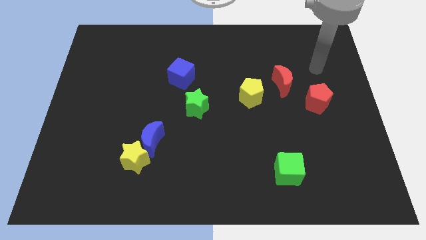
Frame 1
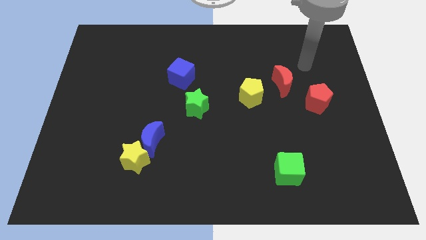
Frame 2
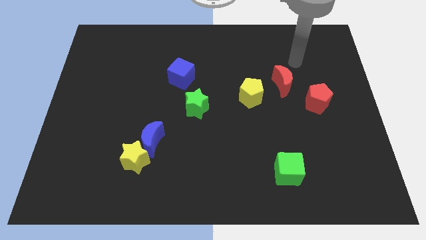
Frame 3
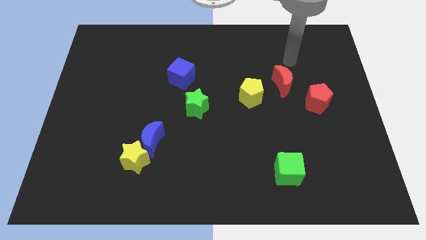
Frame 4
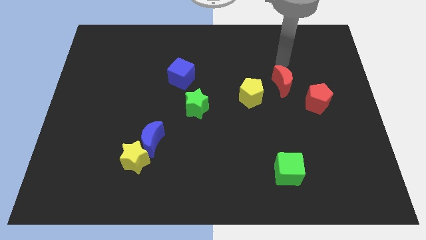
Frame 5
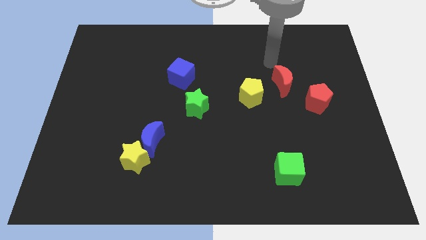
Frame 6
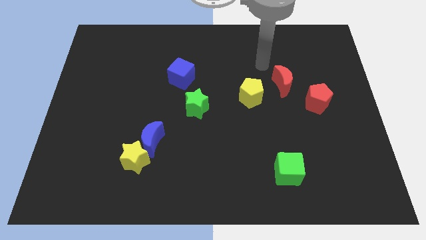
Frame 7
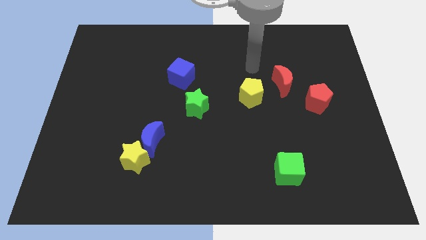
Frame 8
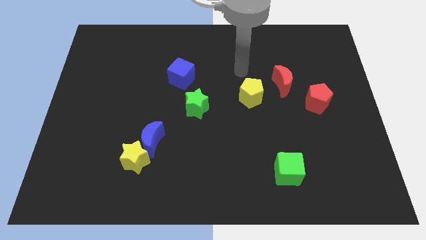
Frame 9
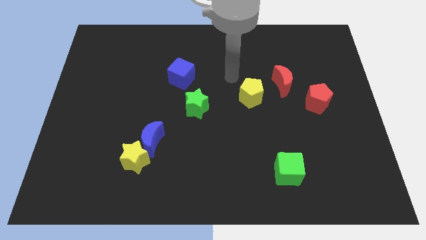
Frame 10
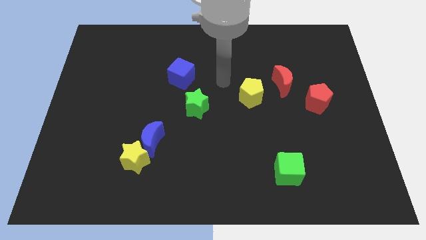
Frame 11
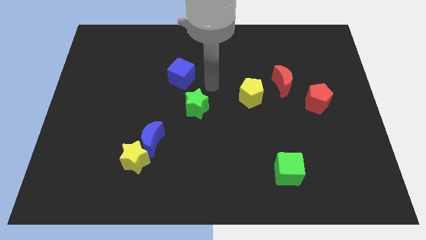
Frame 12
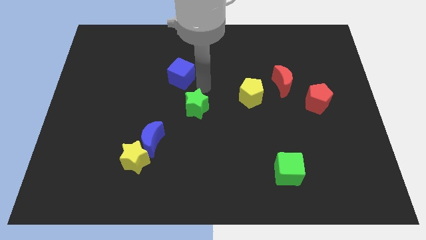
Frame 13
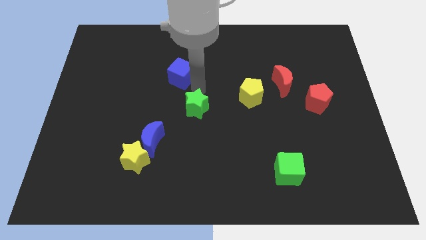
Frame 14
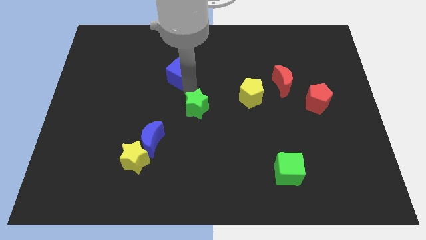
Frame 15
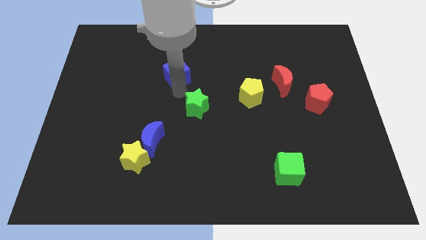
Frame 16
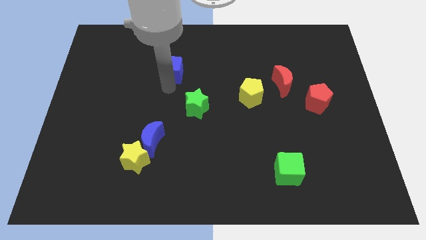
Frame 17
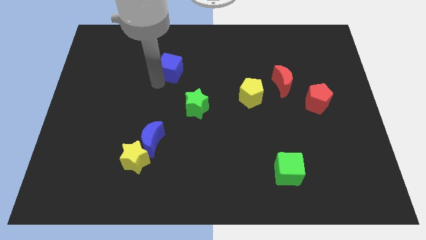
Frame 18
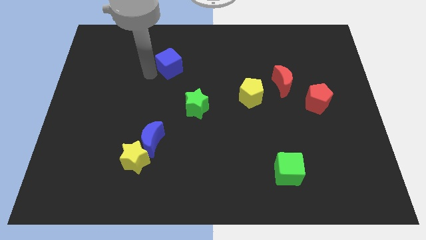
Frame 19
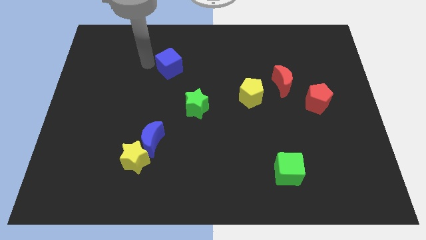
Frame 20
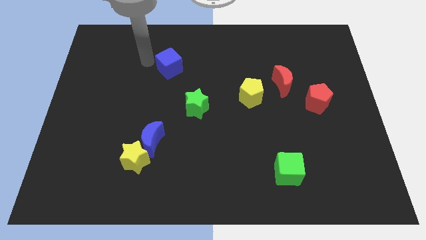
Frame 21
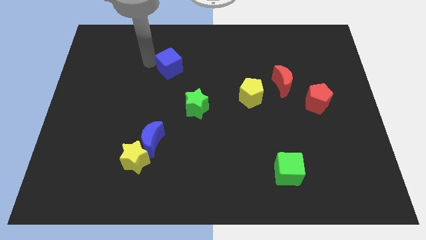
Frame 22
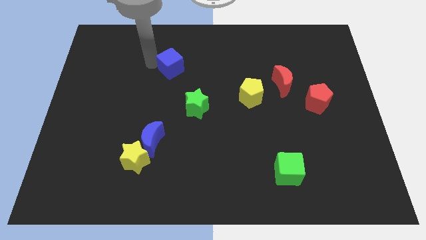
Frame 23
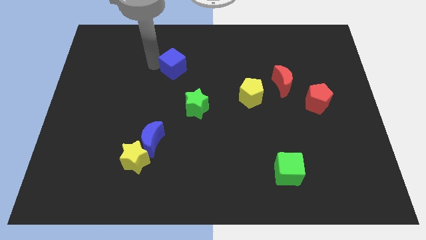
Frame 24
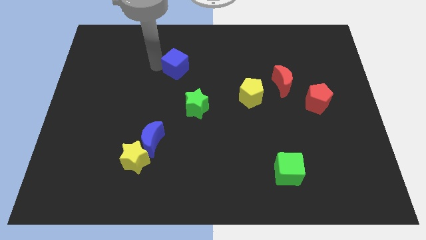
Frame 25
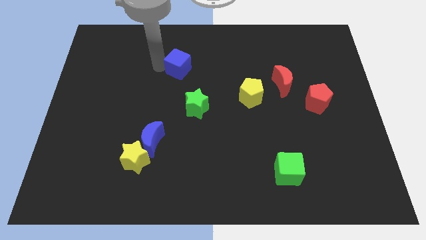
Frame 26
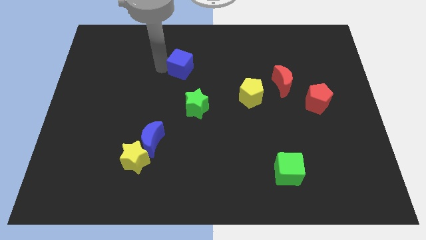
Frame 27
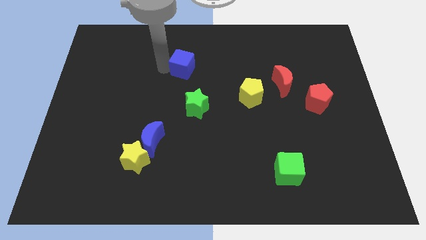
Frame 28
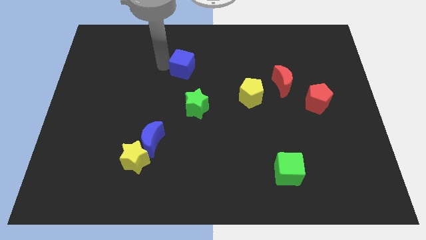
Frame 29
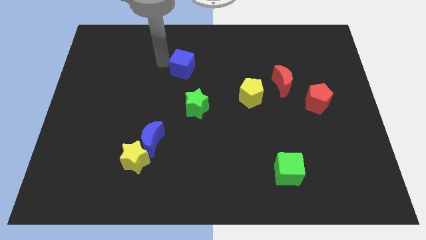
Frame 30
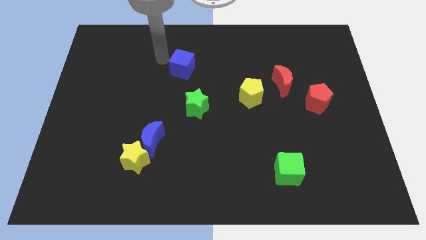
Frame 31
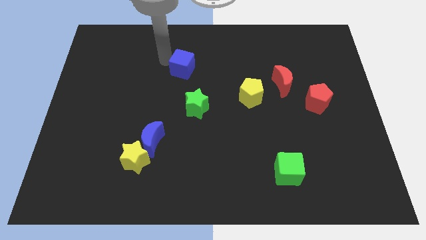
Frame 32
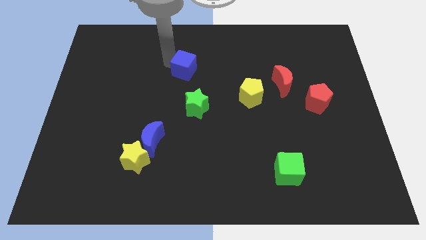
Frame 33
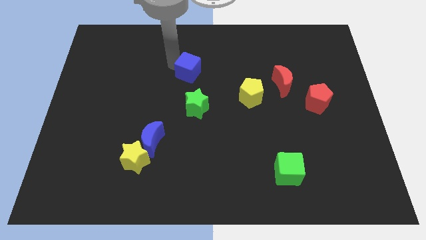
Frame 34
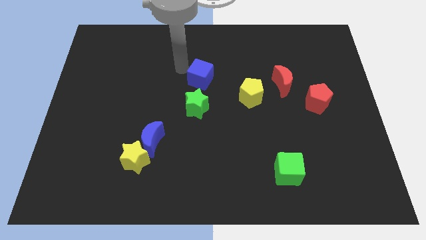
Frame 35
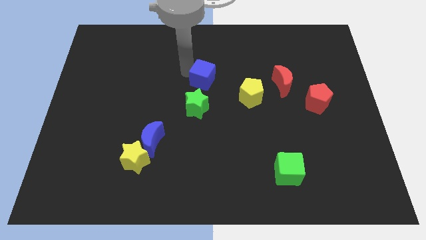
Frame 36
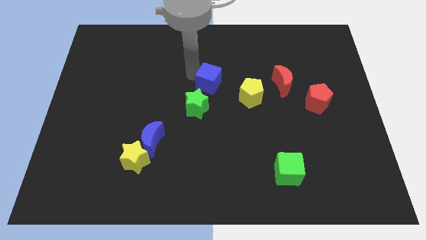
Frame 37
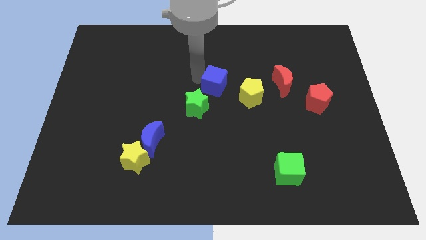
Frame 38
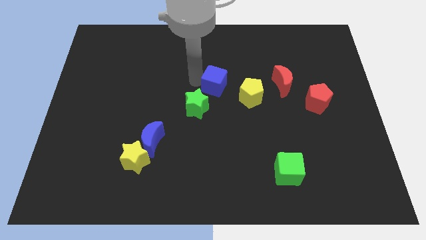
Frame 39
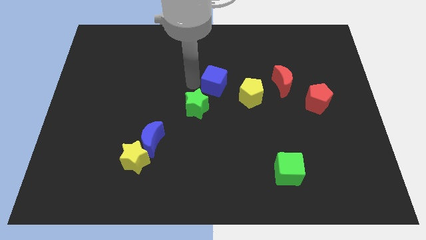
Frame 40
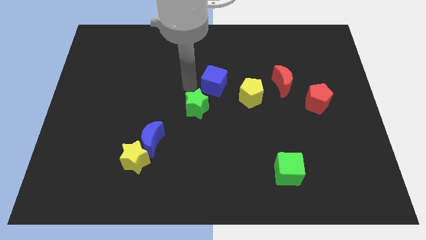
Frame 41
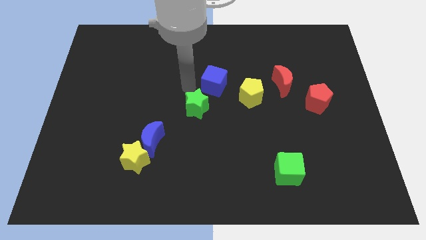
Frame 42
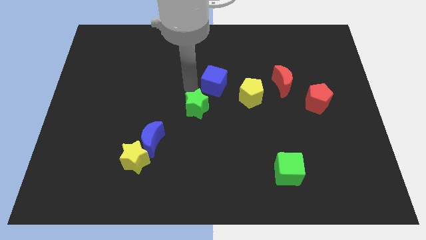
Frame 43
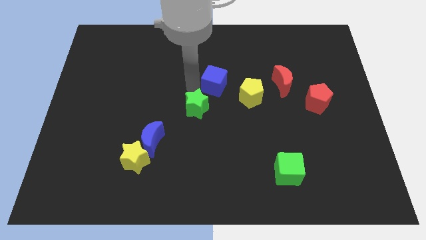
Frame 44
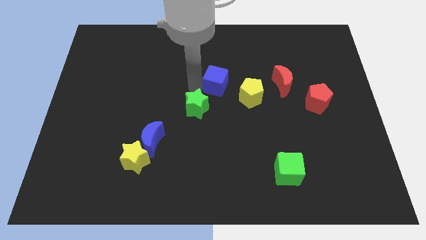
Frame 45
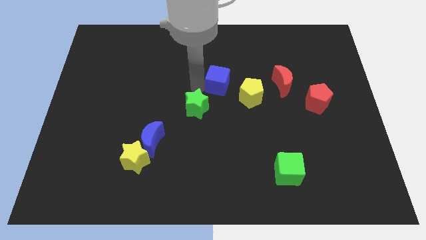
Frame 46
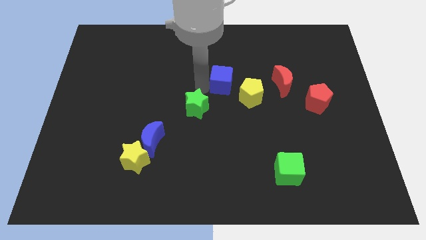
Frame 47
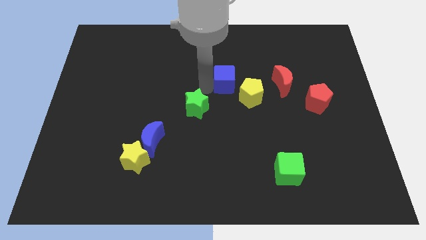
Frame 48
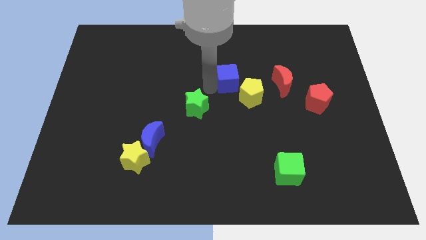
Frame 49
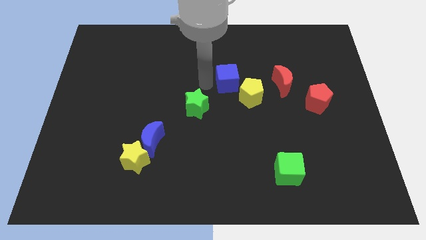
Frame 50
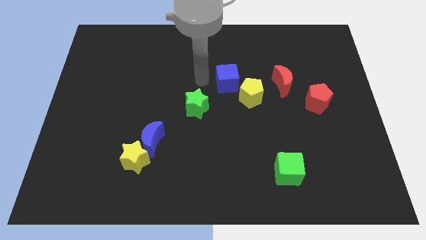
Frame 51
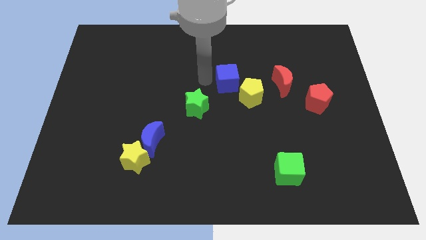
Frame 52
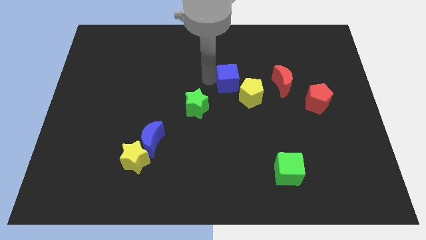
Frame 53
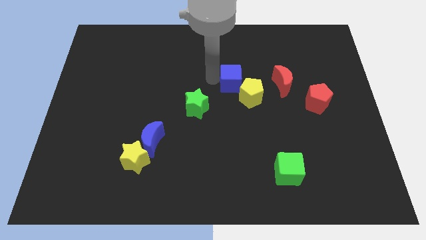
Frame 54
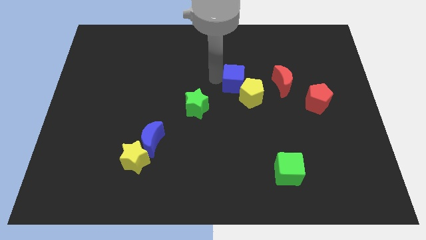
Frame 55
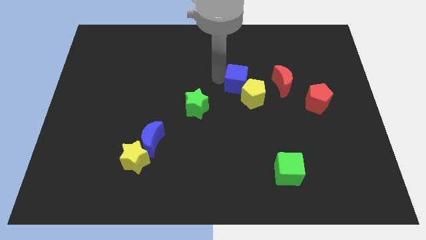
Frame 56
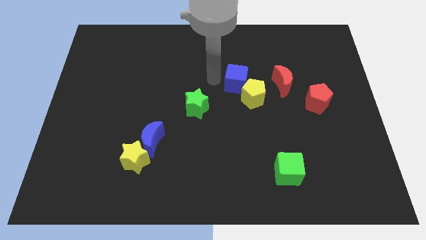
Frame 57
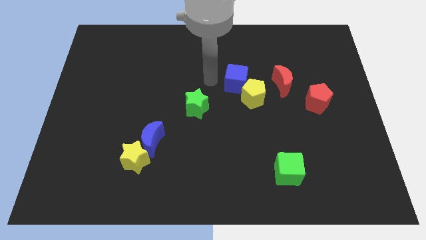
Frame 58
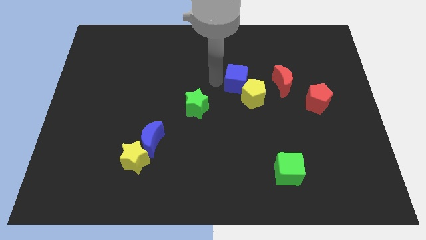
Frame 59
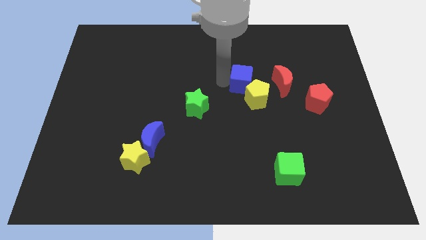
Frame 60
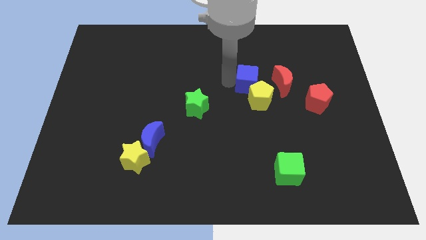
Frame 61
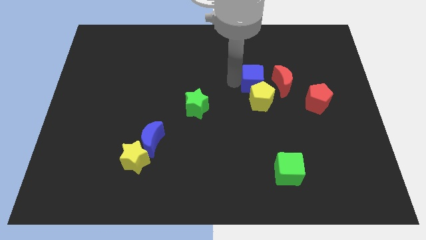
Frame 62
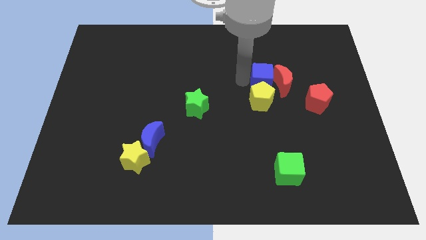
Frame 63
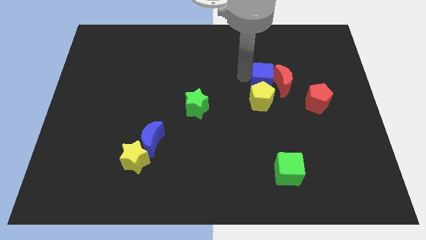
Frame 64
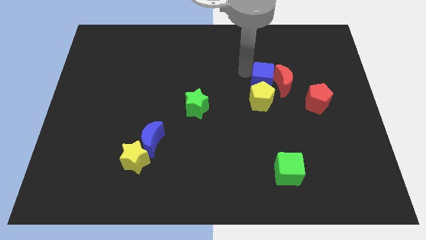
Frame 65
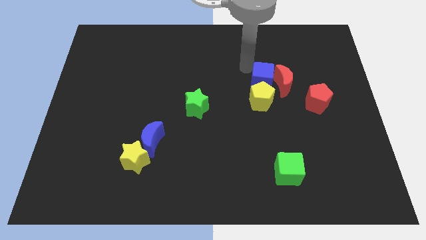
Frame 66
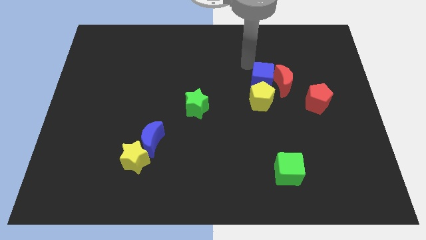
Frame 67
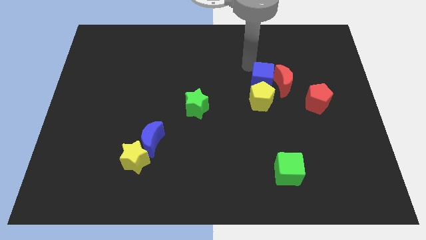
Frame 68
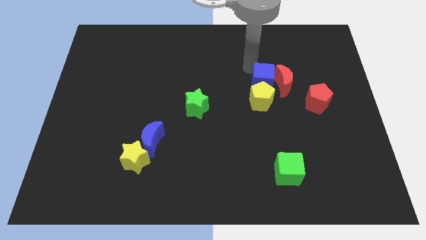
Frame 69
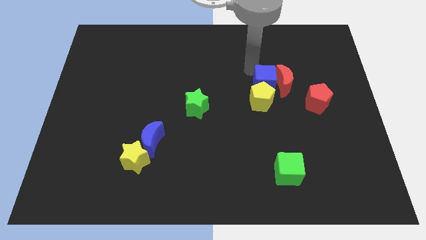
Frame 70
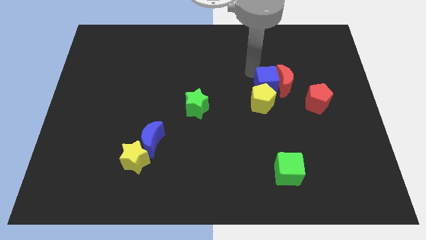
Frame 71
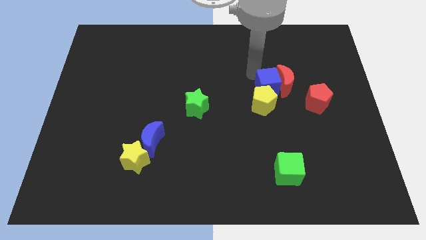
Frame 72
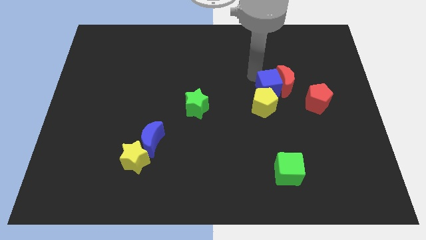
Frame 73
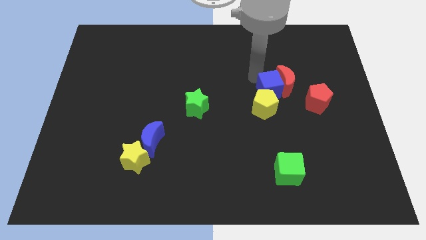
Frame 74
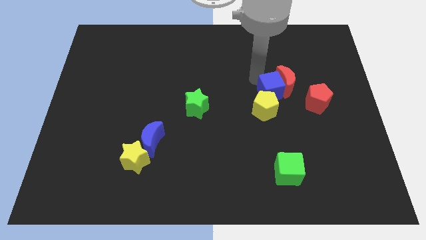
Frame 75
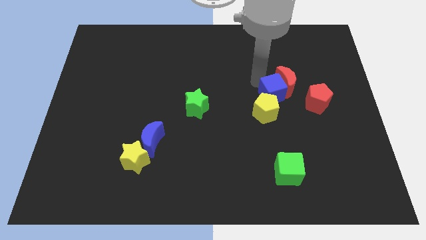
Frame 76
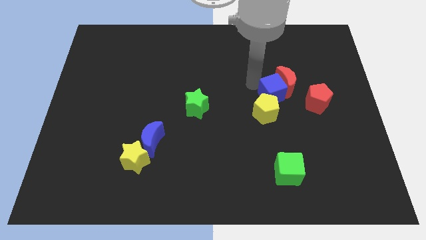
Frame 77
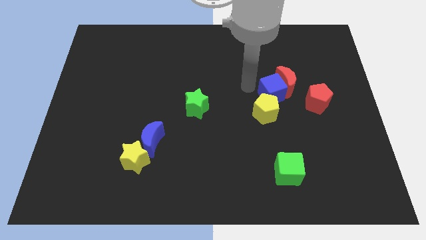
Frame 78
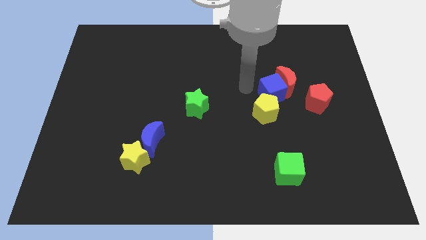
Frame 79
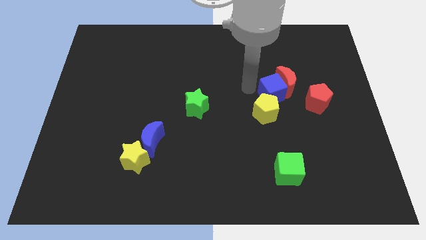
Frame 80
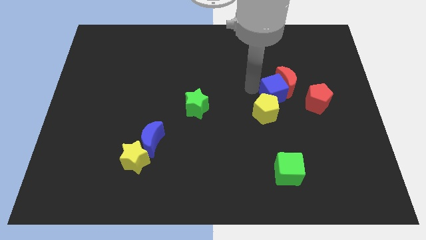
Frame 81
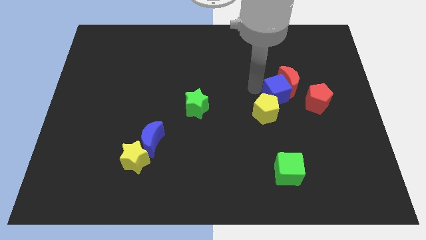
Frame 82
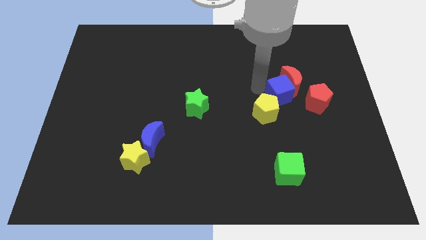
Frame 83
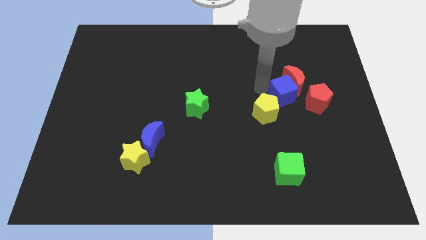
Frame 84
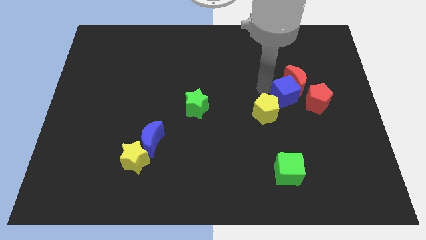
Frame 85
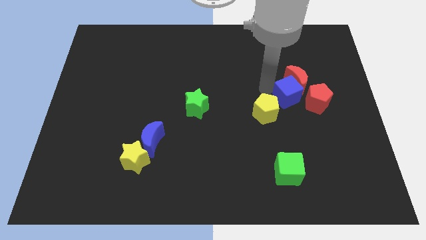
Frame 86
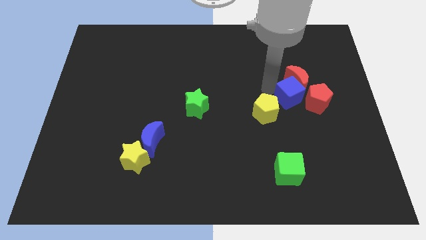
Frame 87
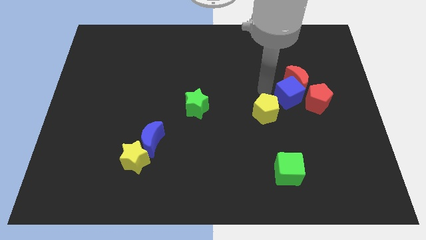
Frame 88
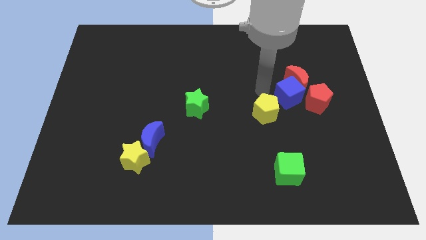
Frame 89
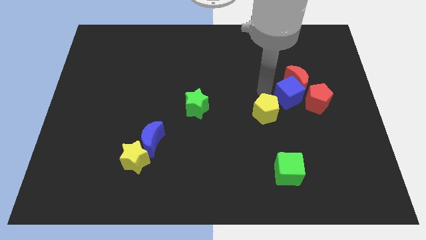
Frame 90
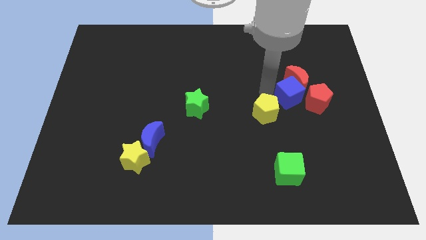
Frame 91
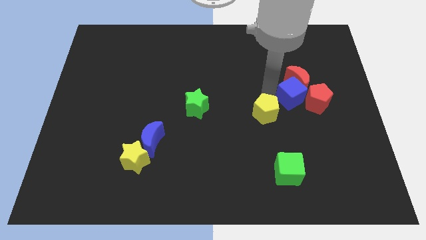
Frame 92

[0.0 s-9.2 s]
push the blue cube towards the red pentagon
